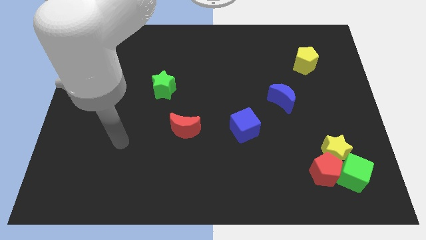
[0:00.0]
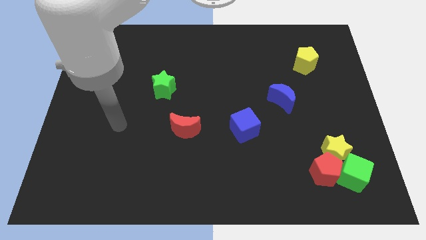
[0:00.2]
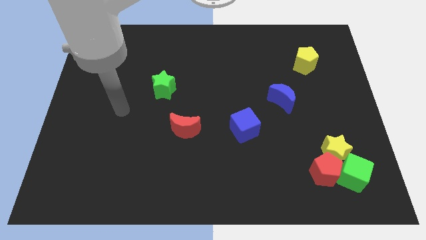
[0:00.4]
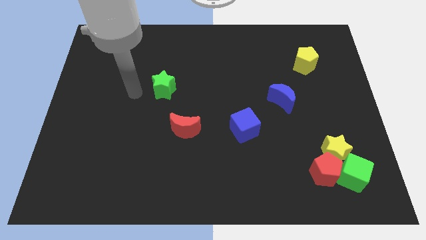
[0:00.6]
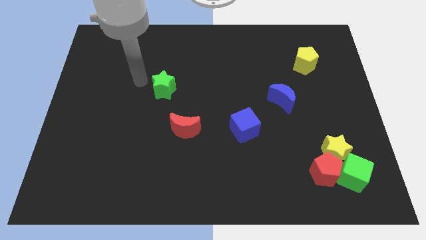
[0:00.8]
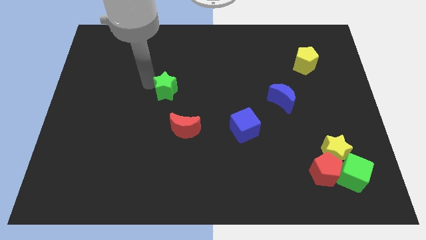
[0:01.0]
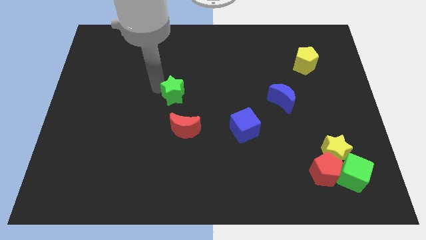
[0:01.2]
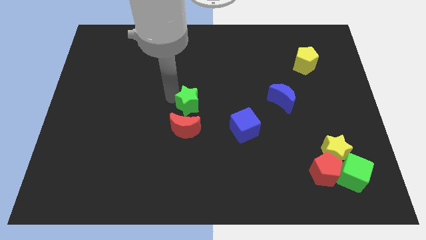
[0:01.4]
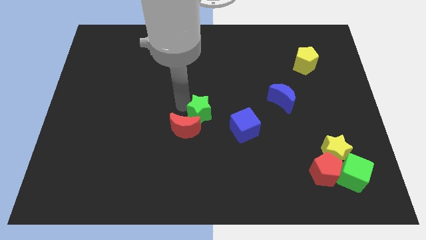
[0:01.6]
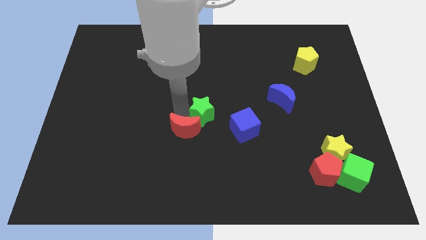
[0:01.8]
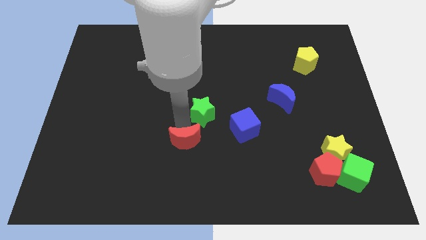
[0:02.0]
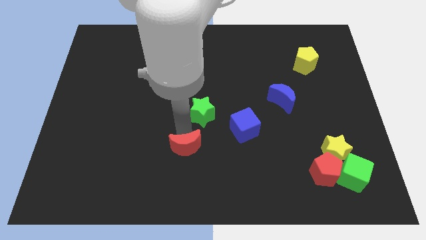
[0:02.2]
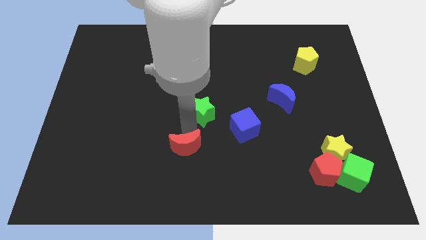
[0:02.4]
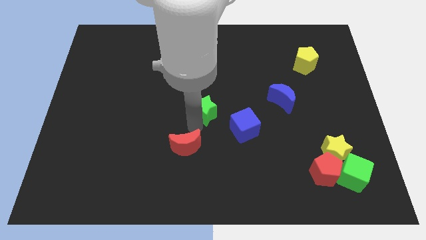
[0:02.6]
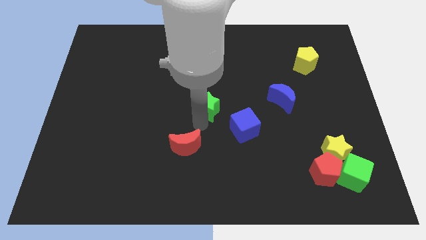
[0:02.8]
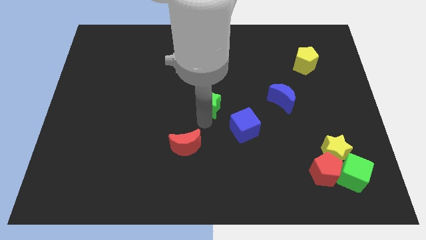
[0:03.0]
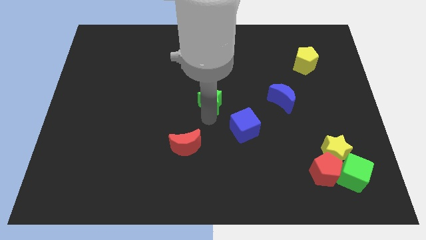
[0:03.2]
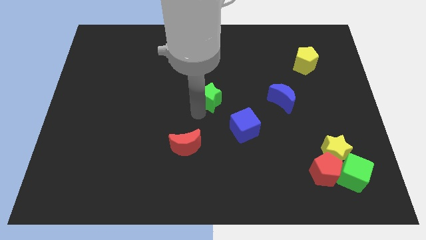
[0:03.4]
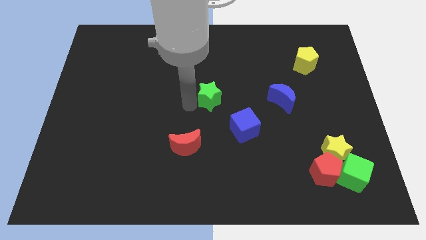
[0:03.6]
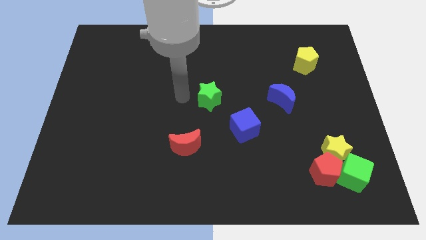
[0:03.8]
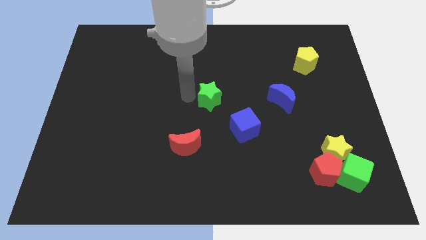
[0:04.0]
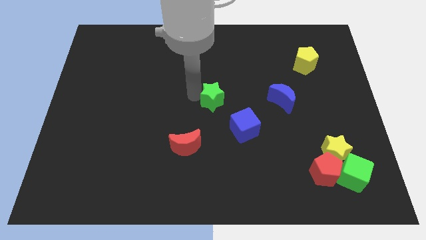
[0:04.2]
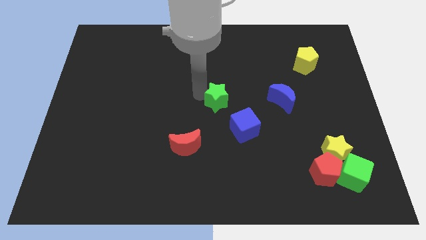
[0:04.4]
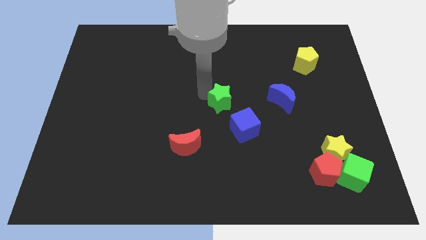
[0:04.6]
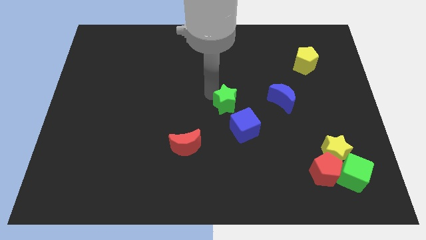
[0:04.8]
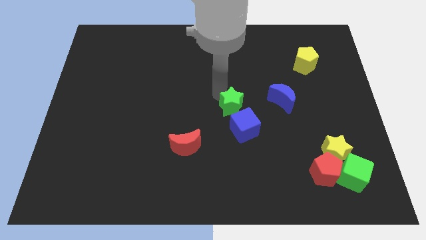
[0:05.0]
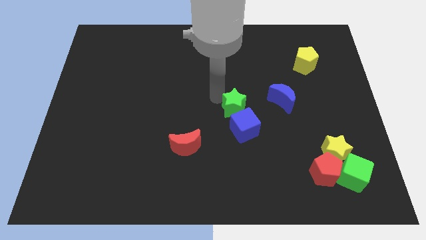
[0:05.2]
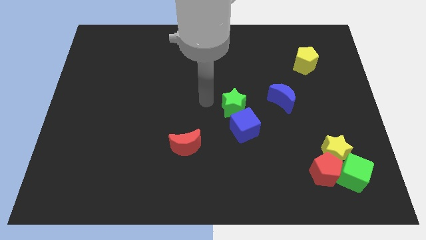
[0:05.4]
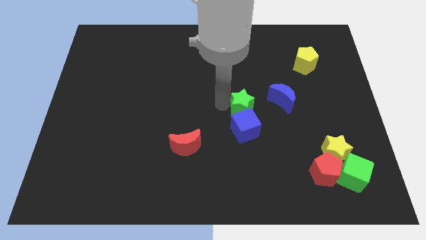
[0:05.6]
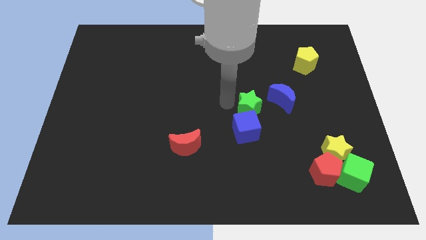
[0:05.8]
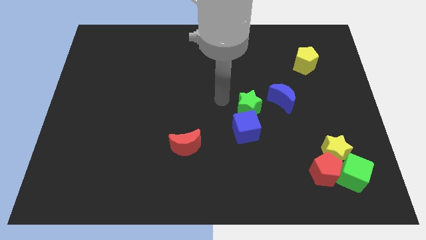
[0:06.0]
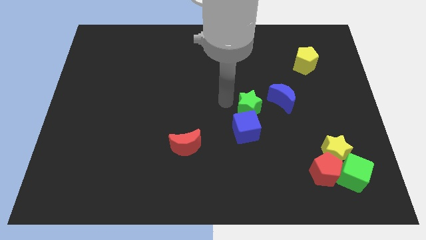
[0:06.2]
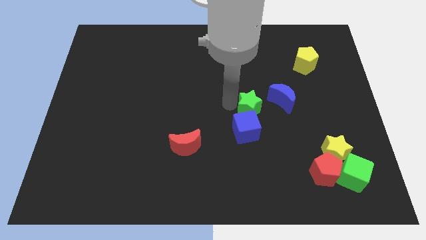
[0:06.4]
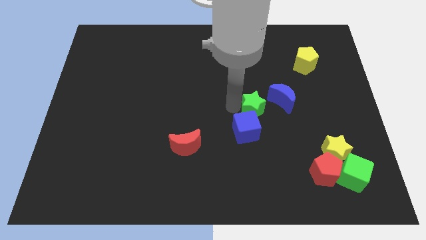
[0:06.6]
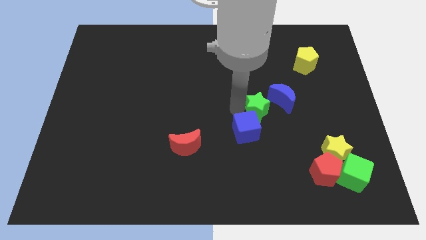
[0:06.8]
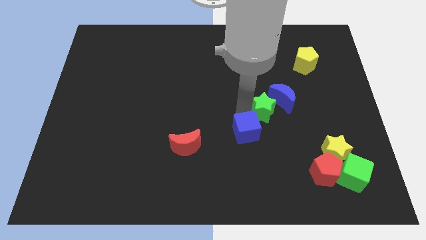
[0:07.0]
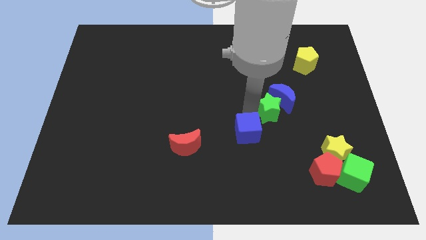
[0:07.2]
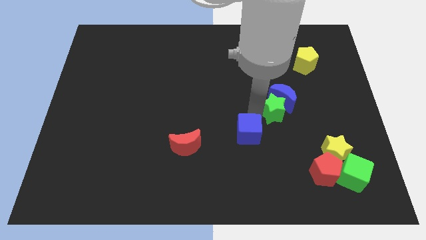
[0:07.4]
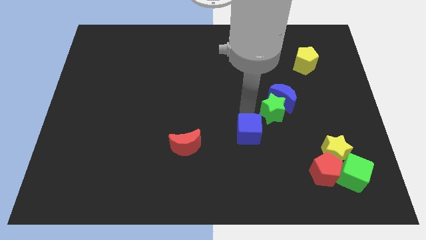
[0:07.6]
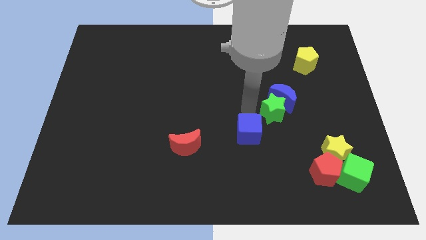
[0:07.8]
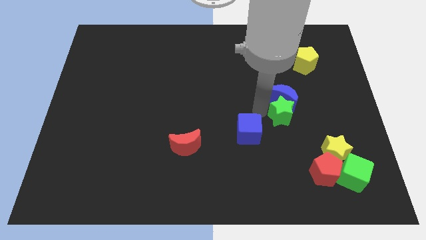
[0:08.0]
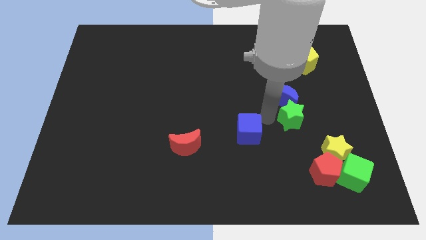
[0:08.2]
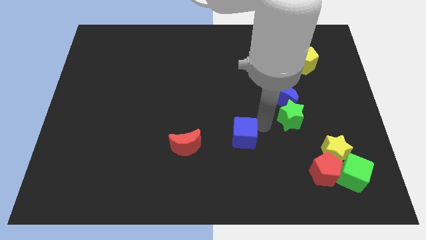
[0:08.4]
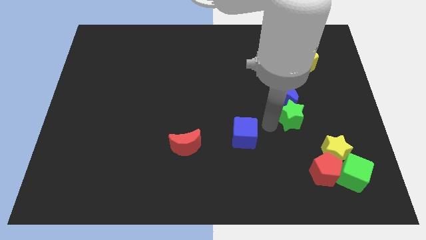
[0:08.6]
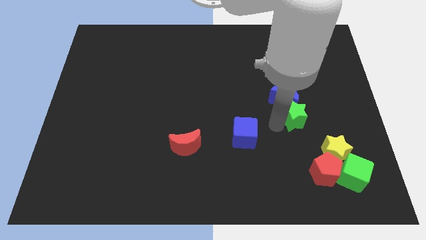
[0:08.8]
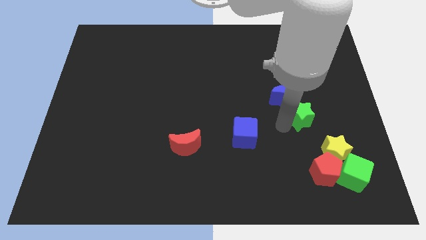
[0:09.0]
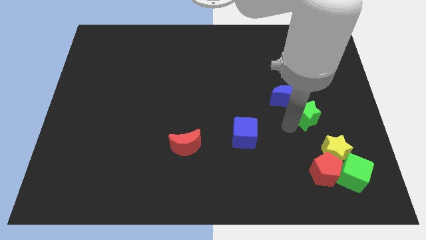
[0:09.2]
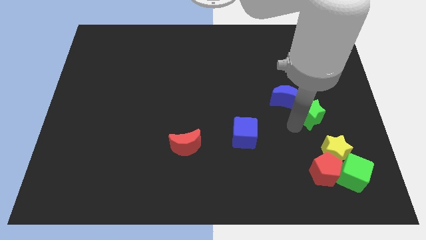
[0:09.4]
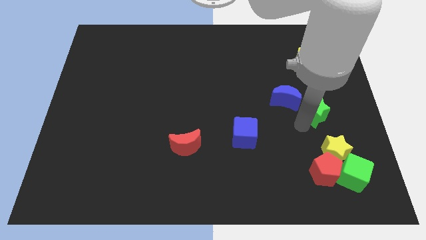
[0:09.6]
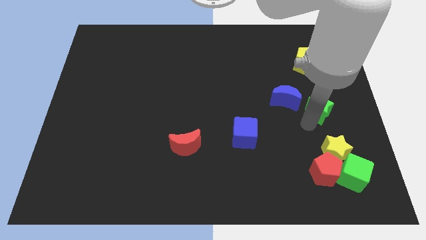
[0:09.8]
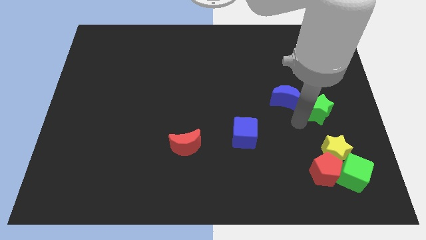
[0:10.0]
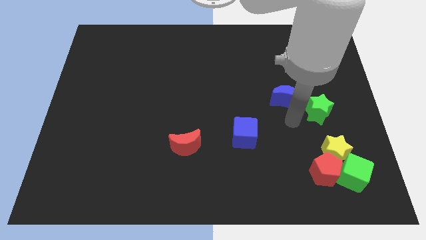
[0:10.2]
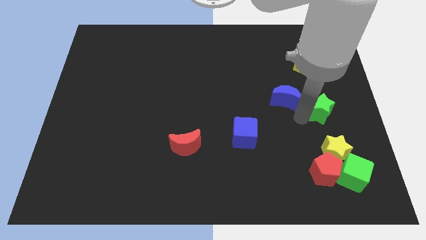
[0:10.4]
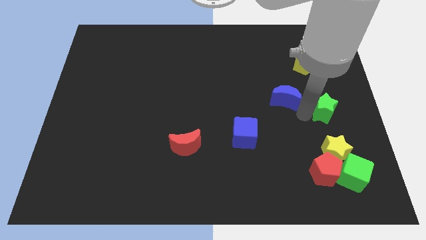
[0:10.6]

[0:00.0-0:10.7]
put the green star to the center right

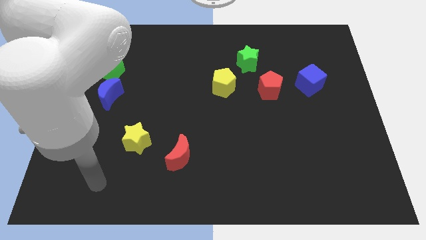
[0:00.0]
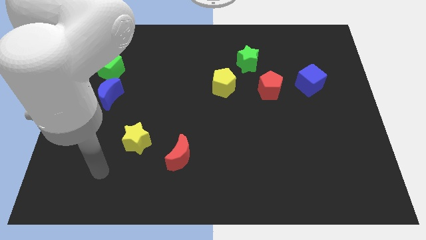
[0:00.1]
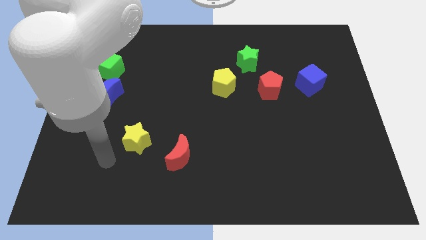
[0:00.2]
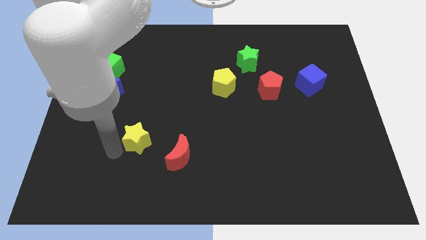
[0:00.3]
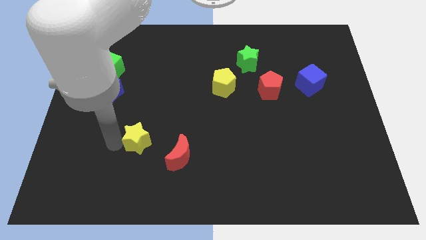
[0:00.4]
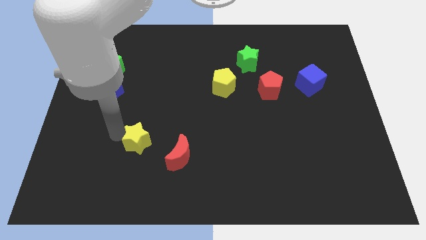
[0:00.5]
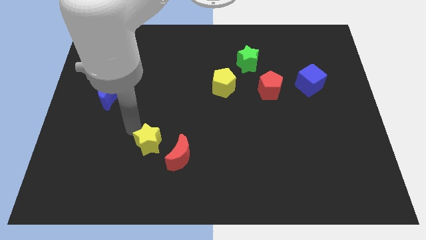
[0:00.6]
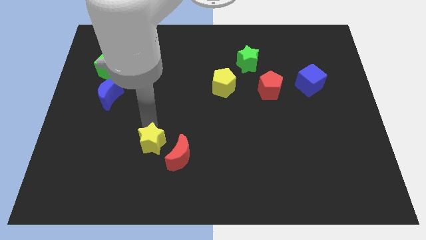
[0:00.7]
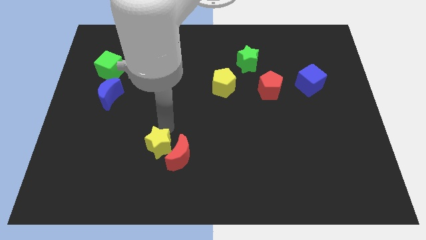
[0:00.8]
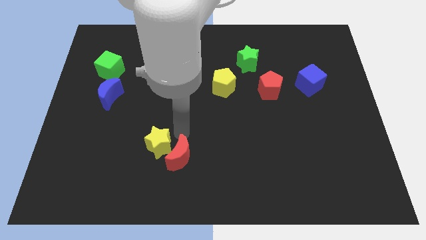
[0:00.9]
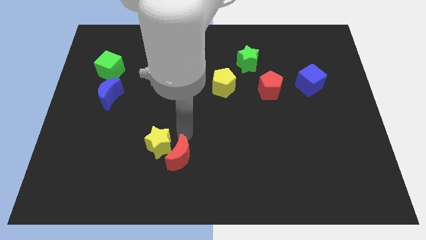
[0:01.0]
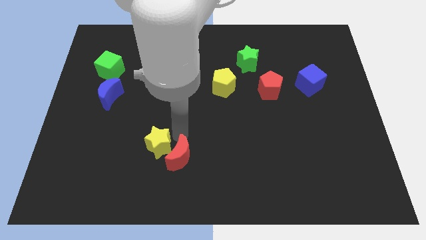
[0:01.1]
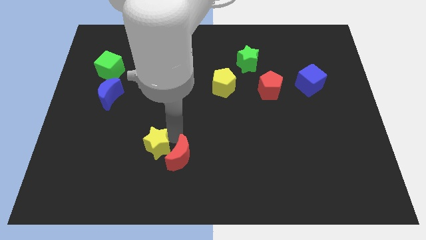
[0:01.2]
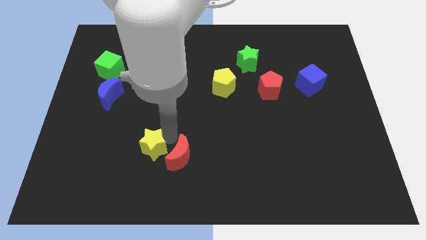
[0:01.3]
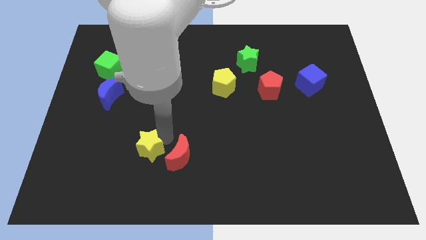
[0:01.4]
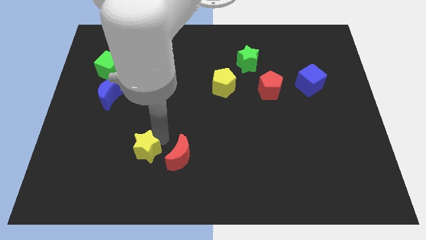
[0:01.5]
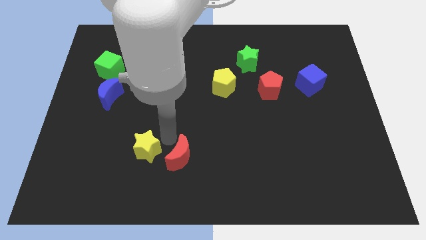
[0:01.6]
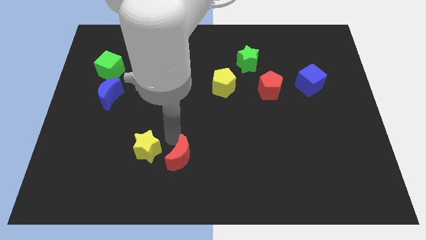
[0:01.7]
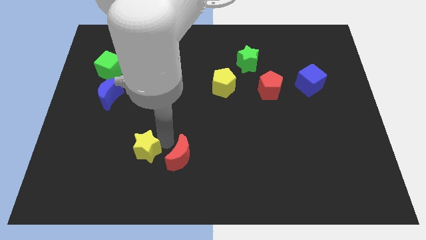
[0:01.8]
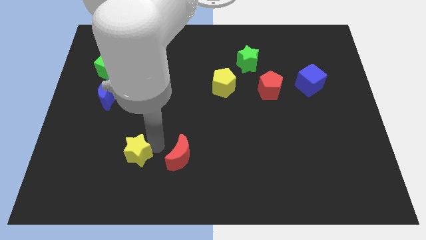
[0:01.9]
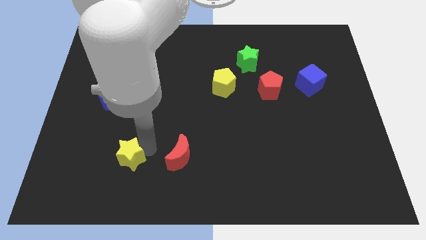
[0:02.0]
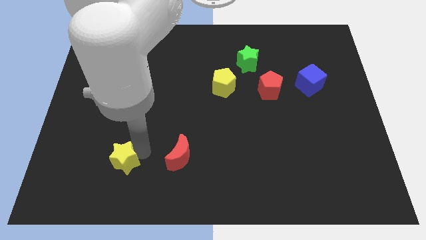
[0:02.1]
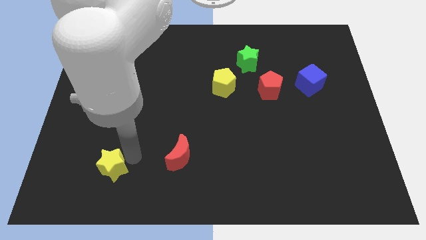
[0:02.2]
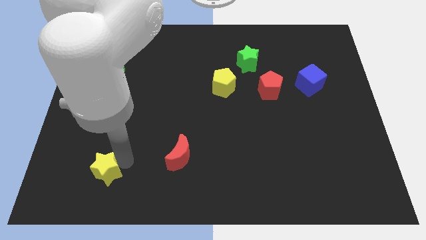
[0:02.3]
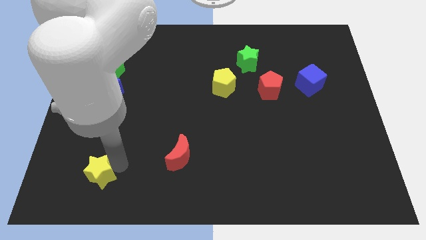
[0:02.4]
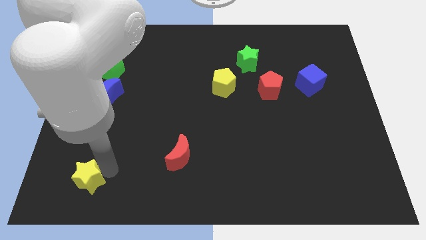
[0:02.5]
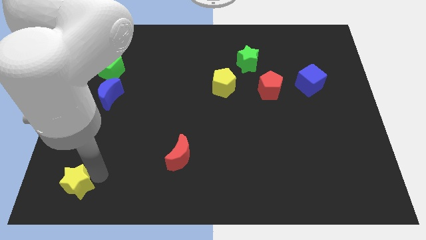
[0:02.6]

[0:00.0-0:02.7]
push the yellow star to the bottom left
